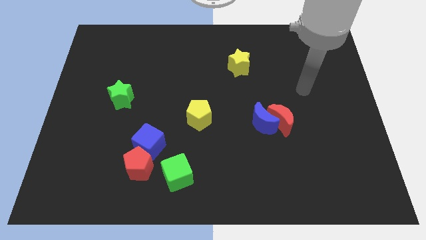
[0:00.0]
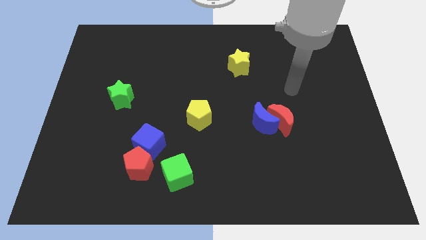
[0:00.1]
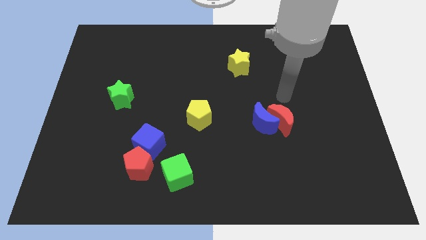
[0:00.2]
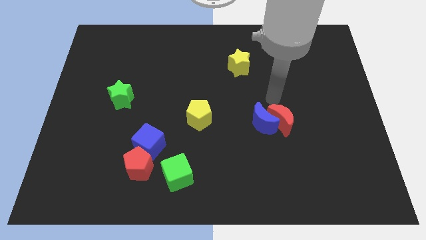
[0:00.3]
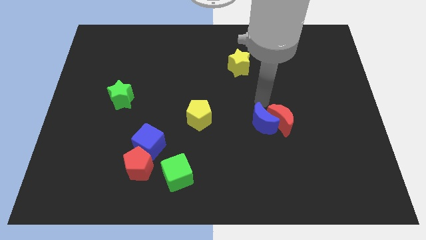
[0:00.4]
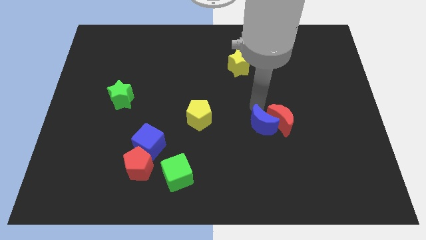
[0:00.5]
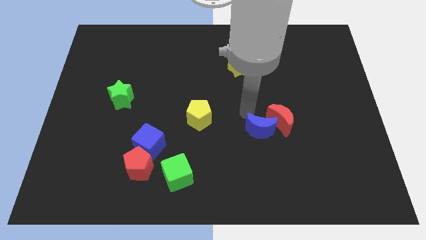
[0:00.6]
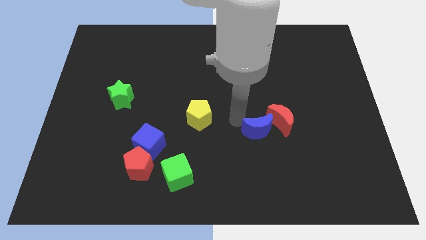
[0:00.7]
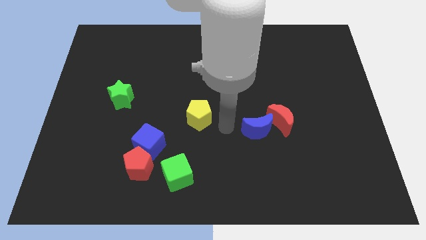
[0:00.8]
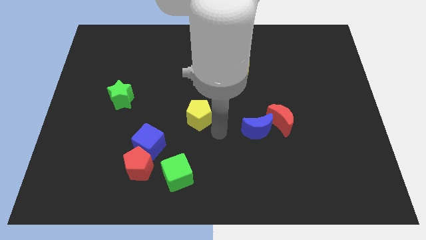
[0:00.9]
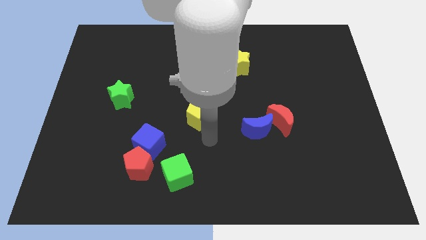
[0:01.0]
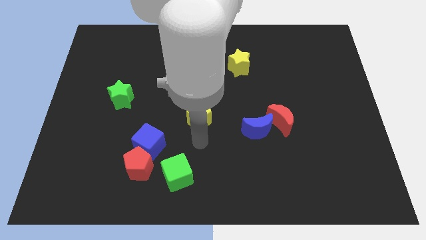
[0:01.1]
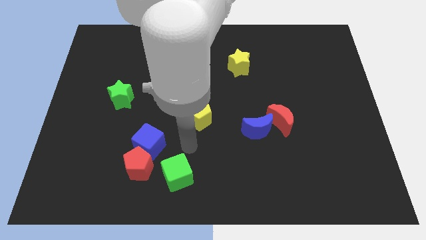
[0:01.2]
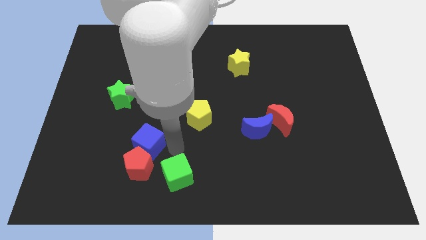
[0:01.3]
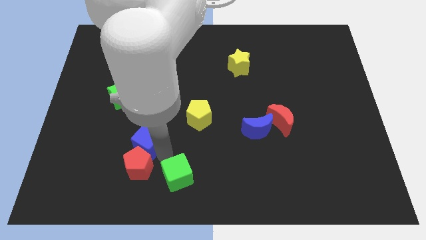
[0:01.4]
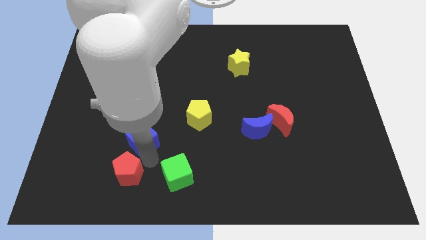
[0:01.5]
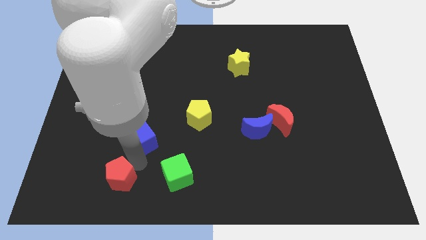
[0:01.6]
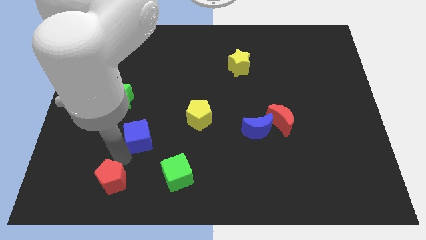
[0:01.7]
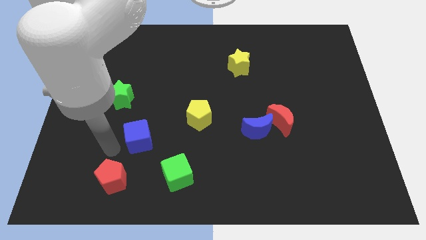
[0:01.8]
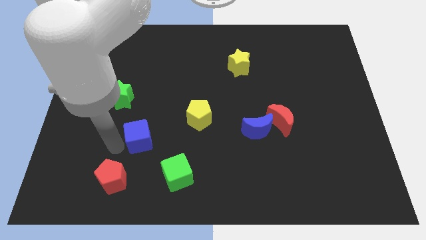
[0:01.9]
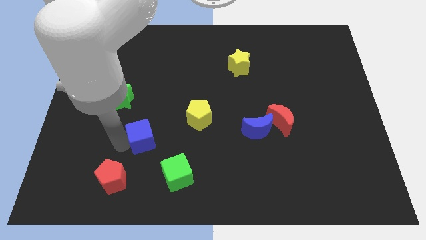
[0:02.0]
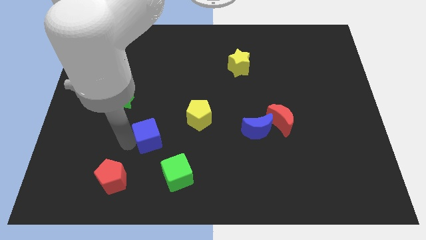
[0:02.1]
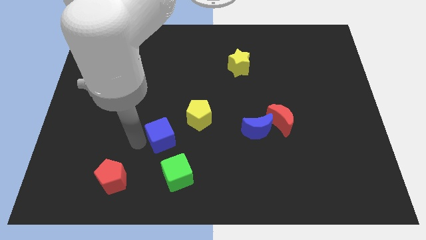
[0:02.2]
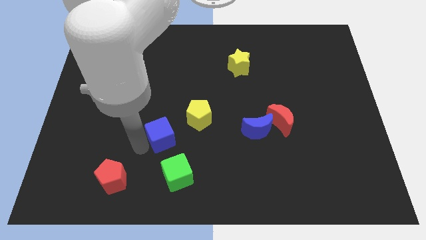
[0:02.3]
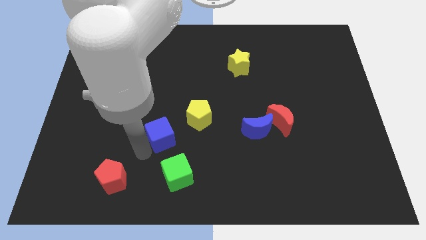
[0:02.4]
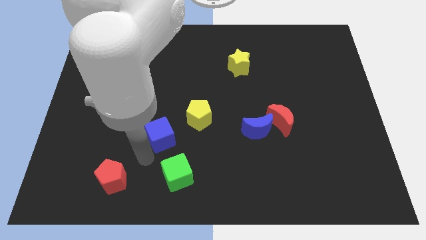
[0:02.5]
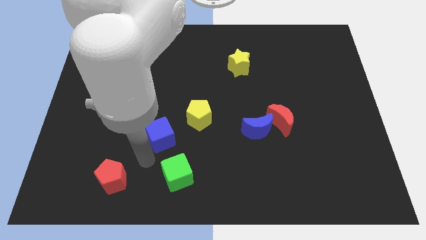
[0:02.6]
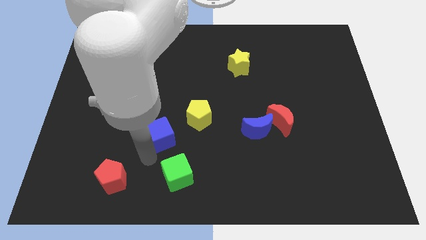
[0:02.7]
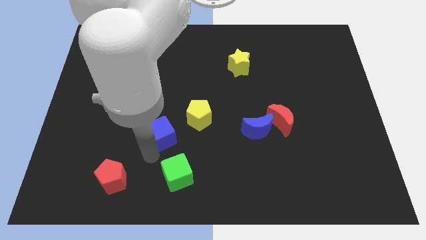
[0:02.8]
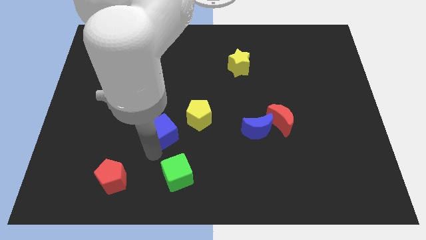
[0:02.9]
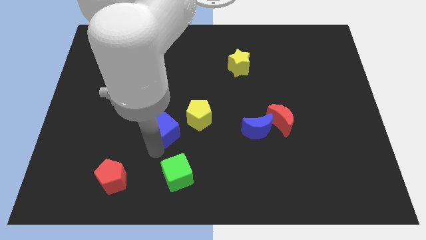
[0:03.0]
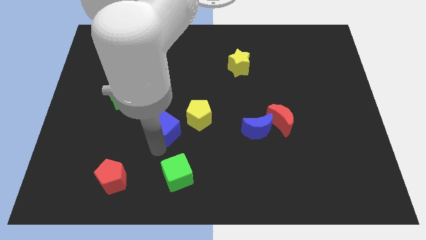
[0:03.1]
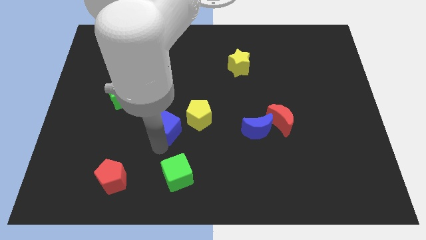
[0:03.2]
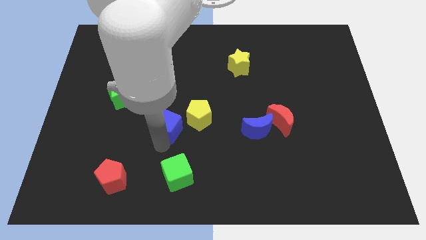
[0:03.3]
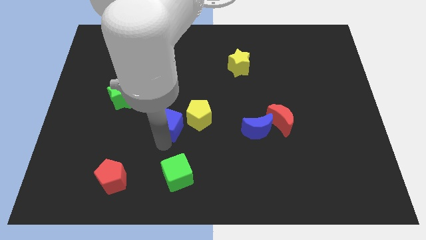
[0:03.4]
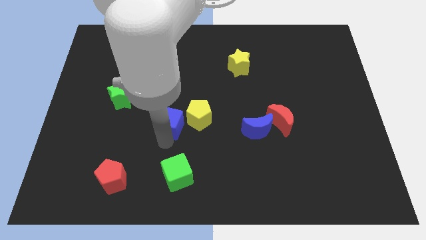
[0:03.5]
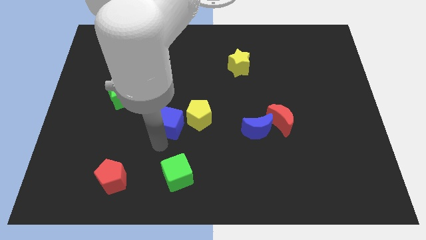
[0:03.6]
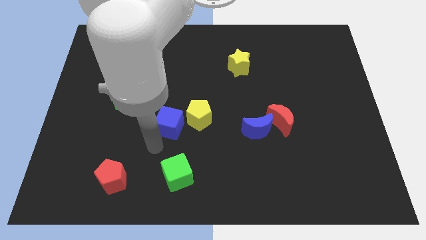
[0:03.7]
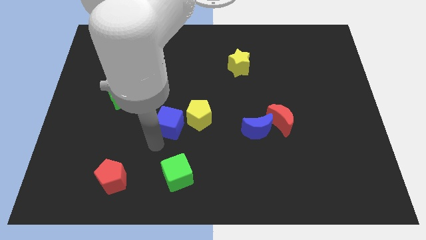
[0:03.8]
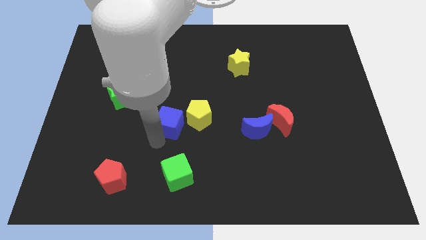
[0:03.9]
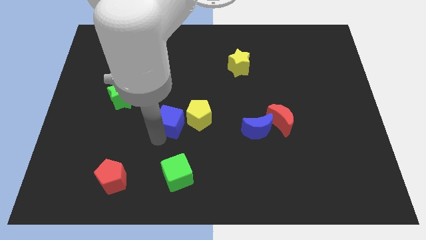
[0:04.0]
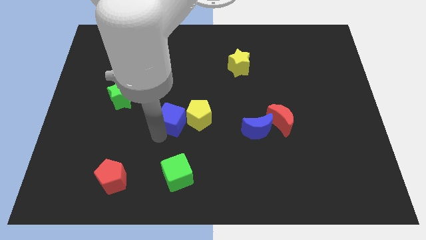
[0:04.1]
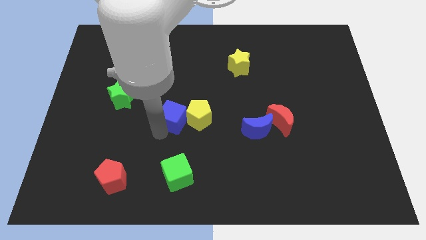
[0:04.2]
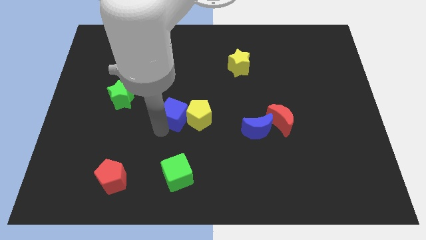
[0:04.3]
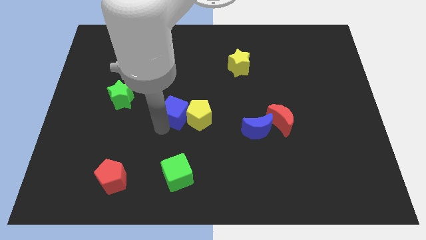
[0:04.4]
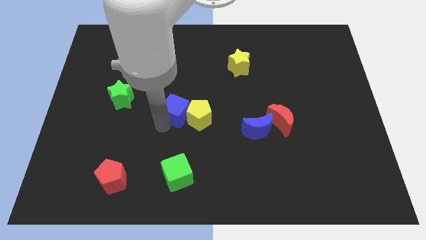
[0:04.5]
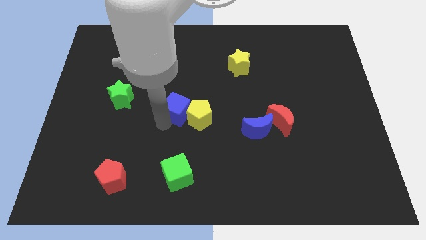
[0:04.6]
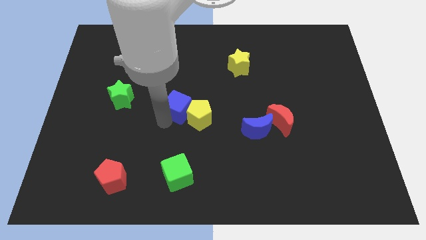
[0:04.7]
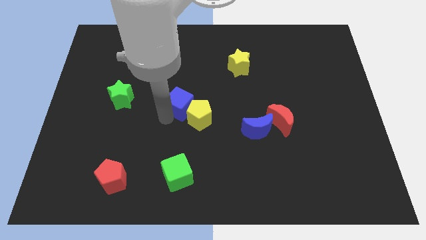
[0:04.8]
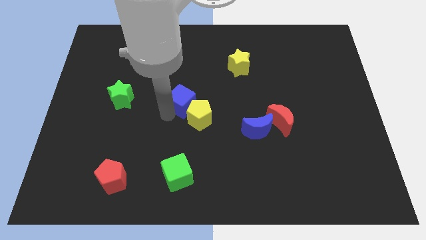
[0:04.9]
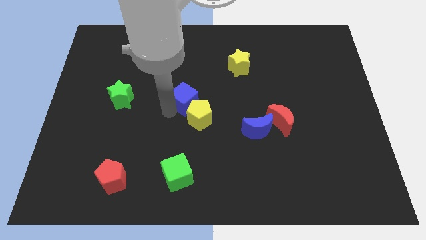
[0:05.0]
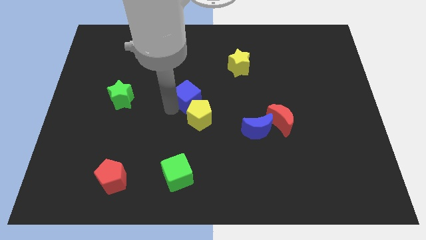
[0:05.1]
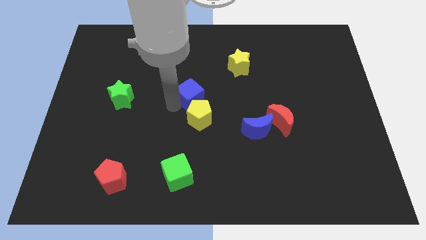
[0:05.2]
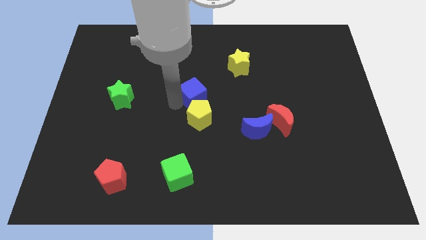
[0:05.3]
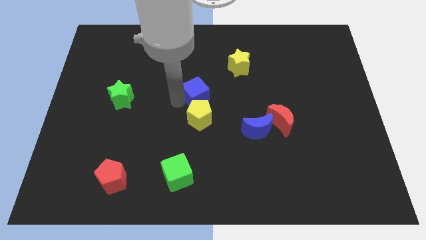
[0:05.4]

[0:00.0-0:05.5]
slide the blue cube to the top right side of the yellow pentagon

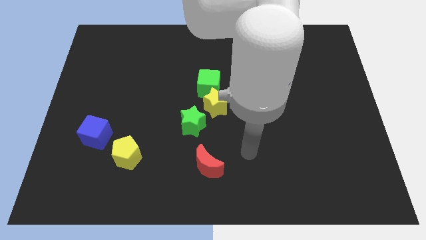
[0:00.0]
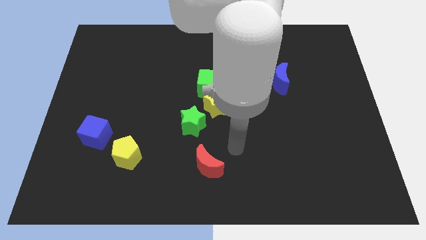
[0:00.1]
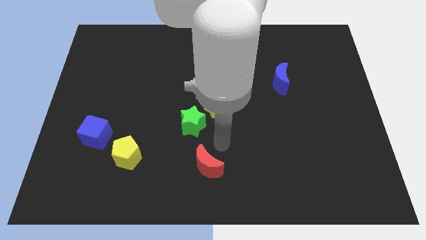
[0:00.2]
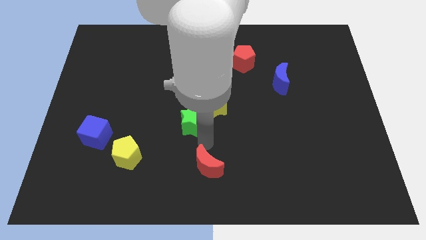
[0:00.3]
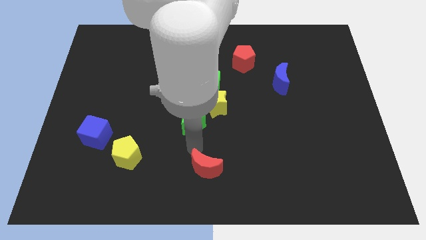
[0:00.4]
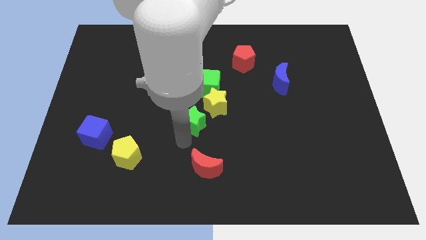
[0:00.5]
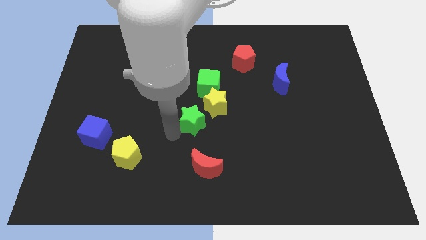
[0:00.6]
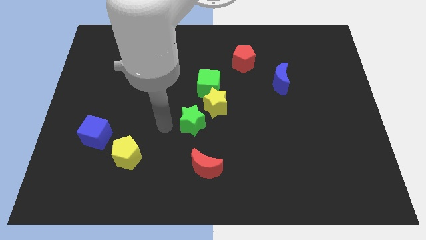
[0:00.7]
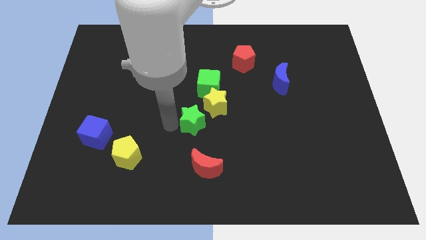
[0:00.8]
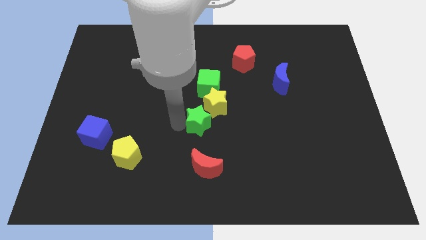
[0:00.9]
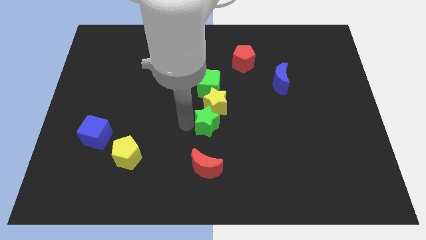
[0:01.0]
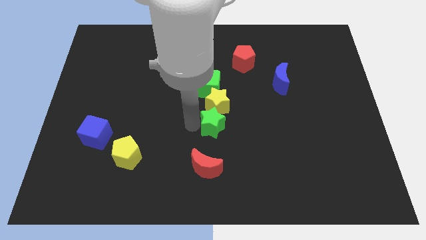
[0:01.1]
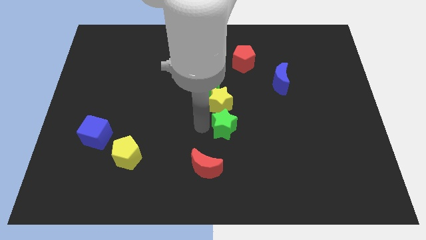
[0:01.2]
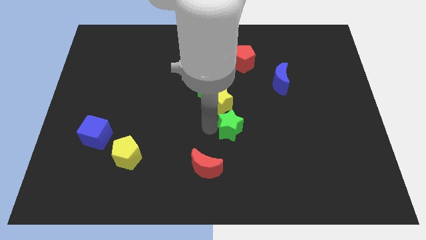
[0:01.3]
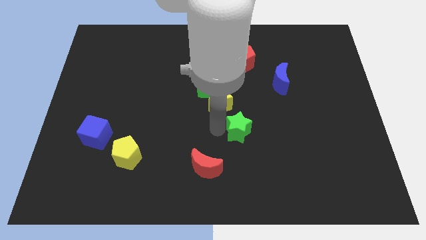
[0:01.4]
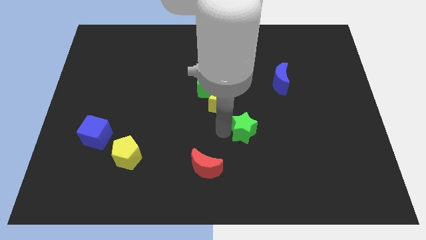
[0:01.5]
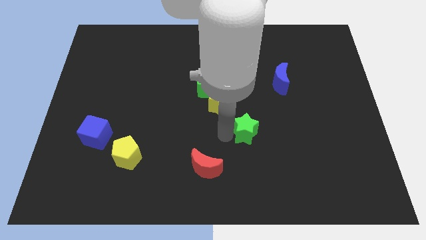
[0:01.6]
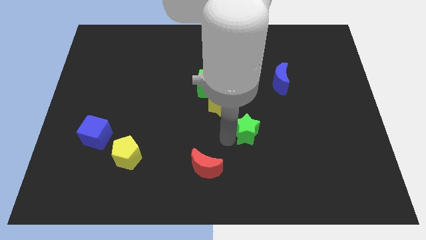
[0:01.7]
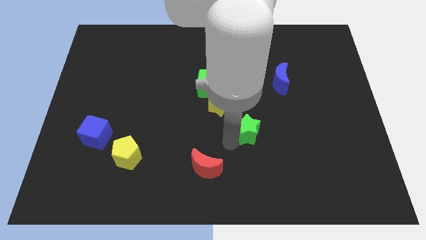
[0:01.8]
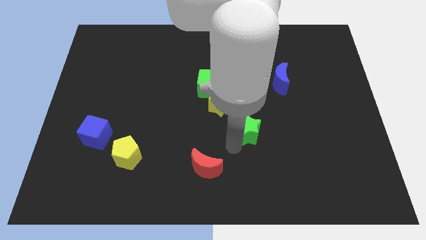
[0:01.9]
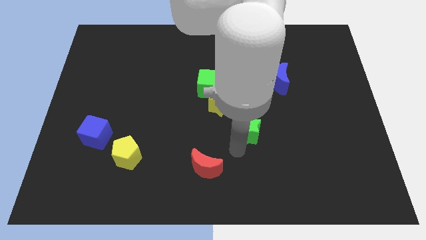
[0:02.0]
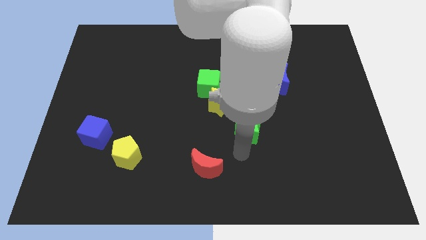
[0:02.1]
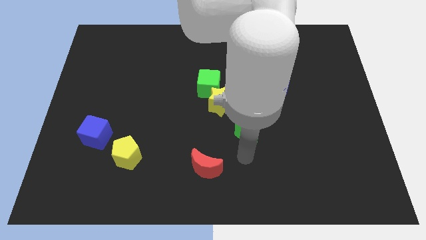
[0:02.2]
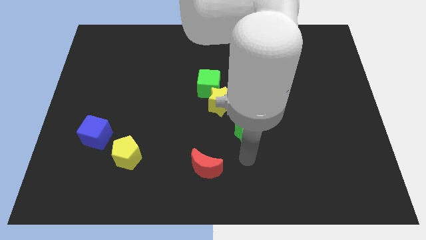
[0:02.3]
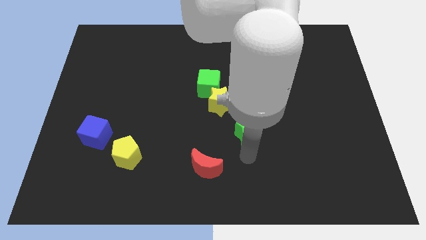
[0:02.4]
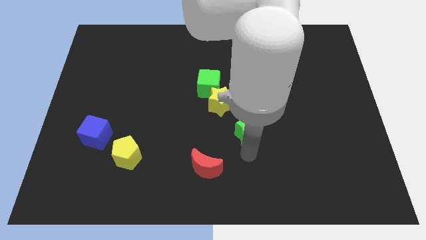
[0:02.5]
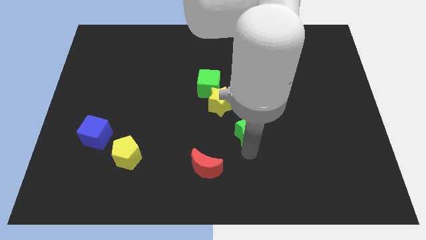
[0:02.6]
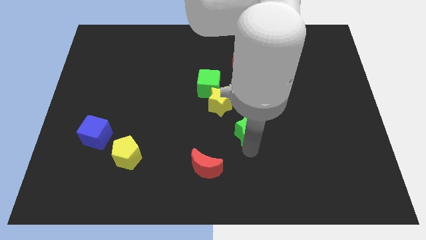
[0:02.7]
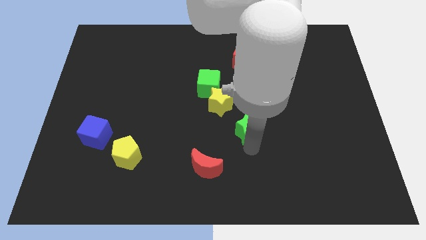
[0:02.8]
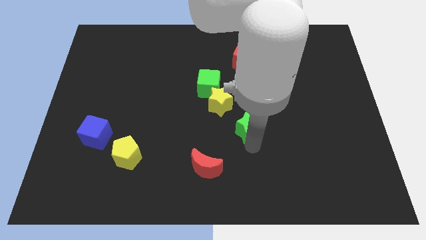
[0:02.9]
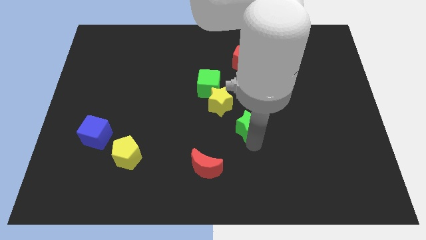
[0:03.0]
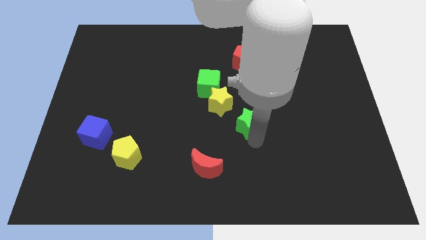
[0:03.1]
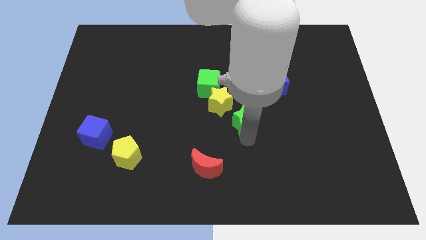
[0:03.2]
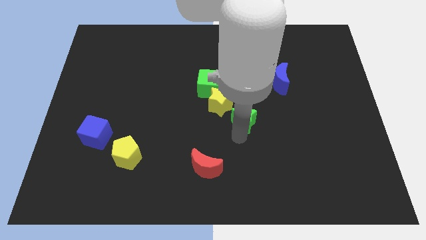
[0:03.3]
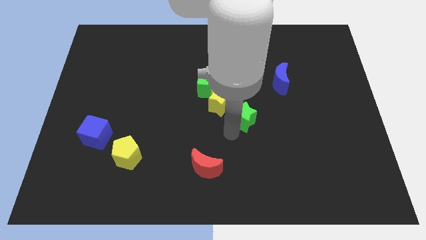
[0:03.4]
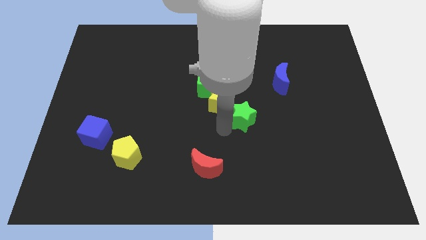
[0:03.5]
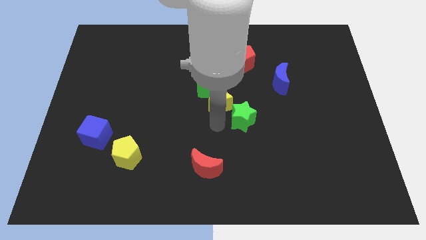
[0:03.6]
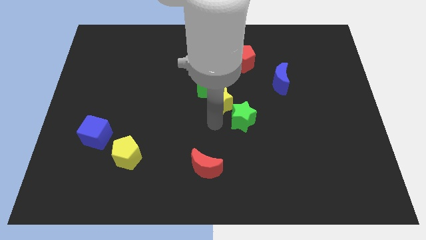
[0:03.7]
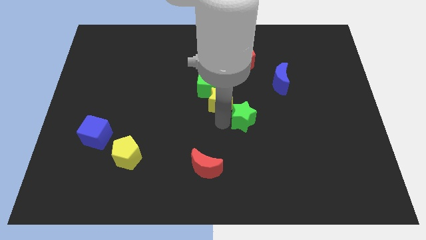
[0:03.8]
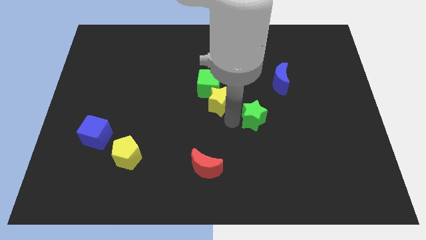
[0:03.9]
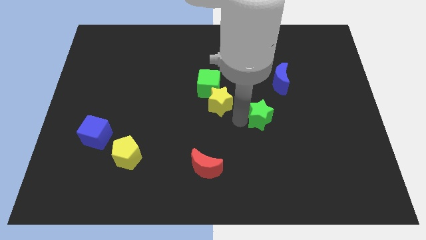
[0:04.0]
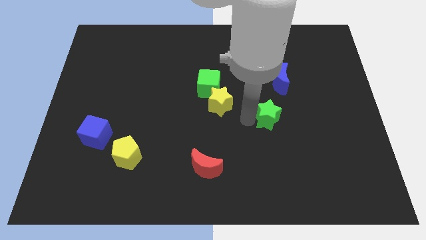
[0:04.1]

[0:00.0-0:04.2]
put the green star to the bottom side of the blue moon
